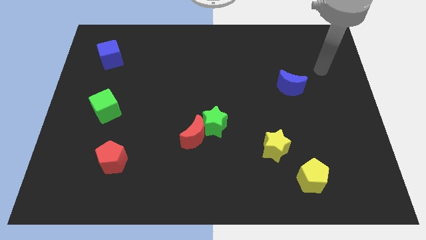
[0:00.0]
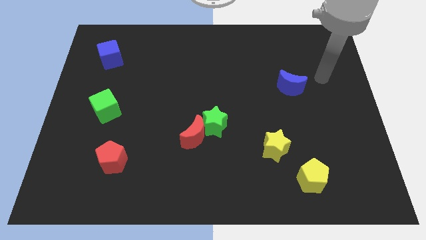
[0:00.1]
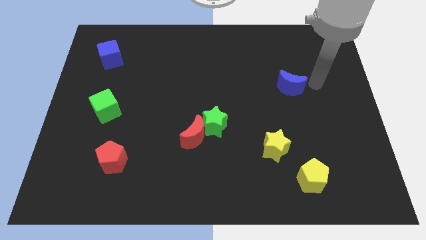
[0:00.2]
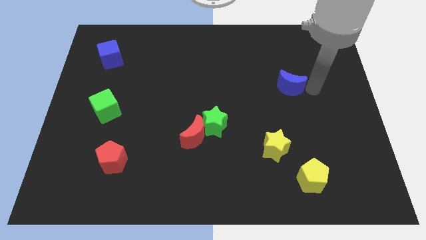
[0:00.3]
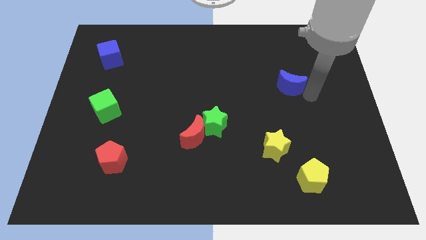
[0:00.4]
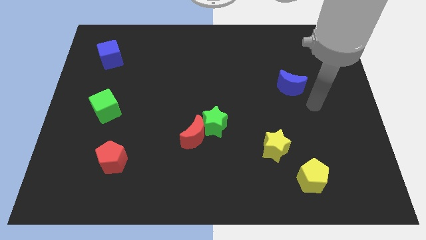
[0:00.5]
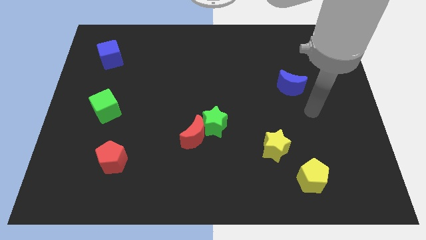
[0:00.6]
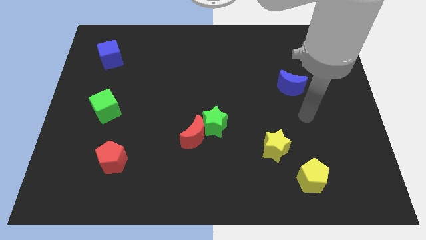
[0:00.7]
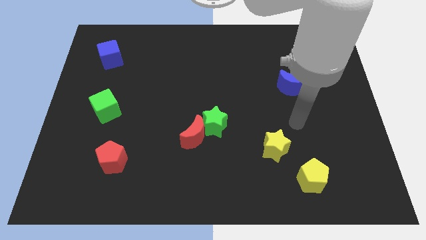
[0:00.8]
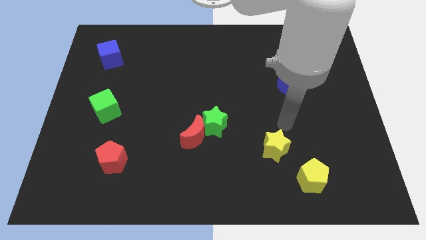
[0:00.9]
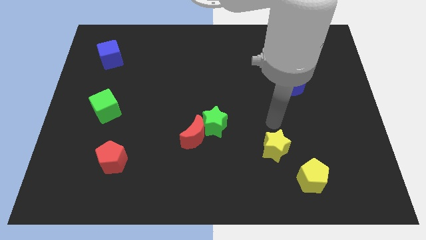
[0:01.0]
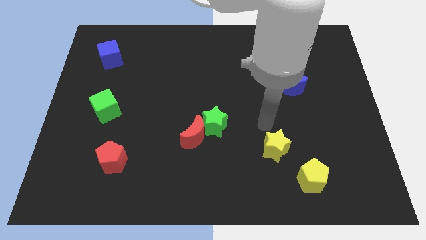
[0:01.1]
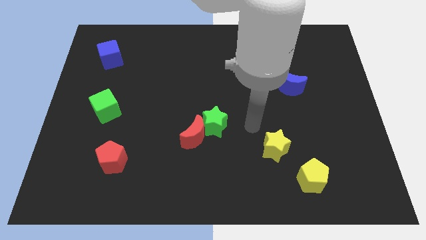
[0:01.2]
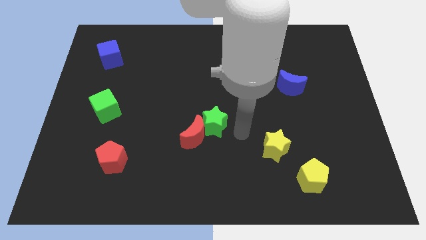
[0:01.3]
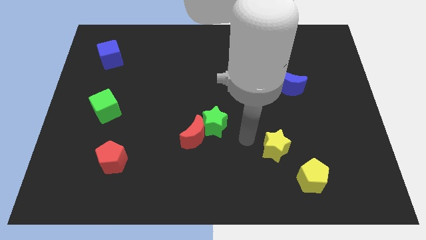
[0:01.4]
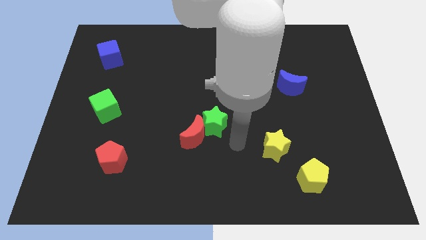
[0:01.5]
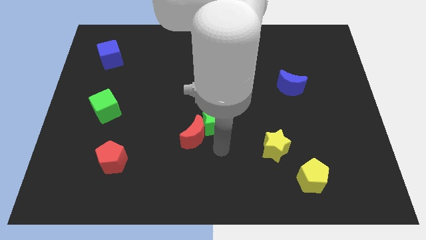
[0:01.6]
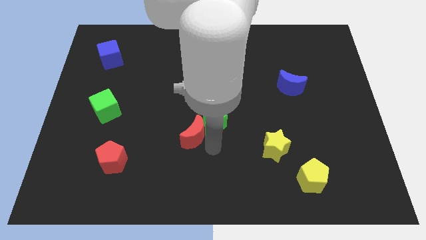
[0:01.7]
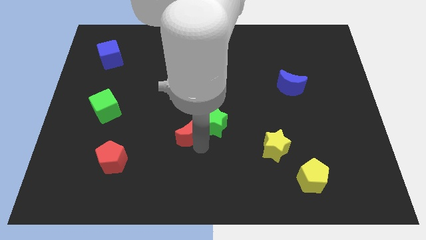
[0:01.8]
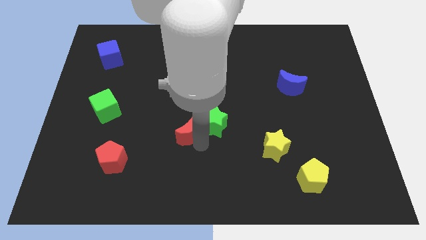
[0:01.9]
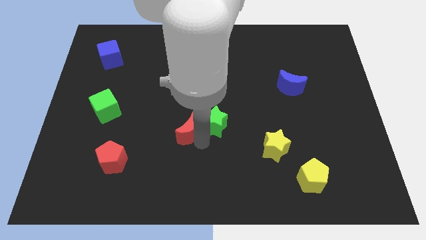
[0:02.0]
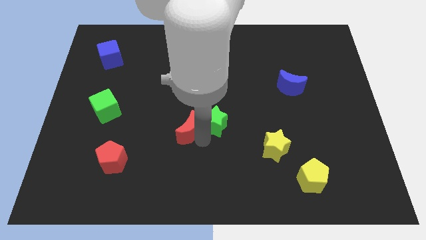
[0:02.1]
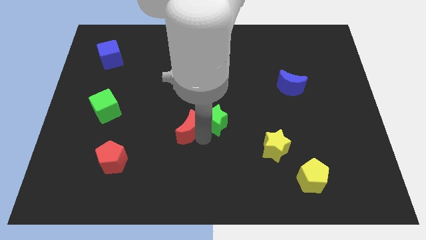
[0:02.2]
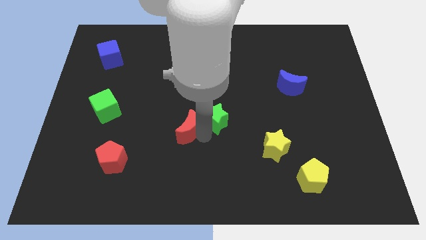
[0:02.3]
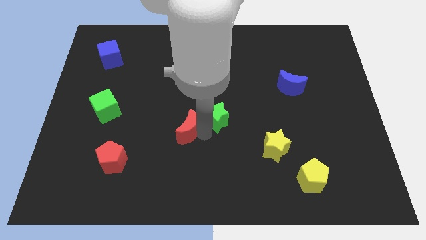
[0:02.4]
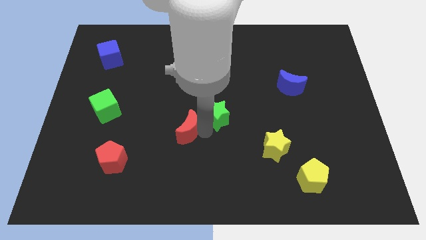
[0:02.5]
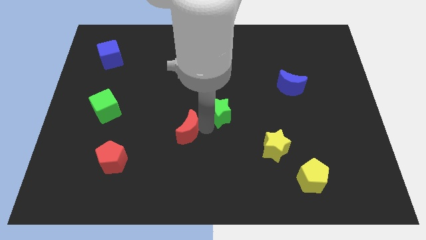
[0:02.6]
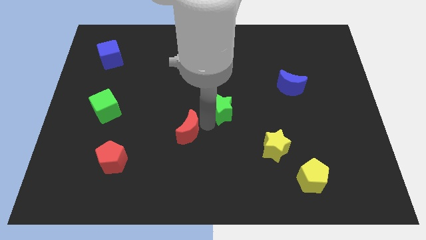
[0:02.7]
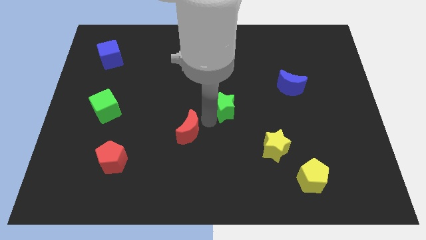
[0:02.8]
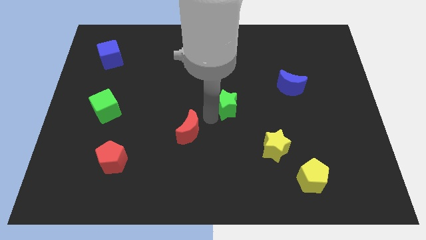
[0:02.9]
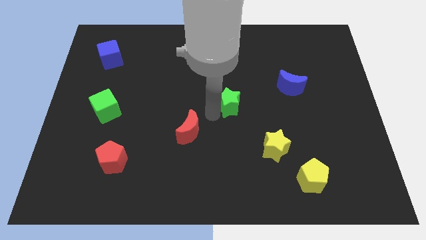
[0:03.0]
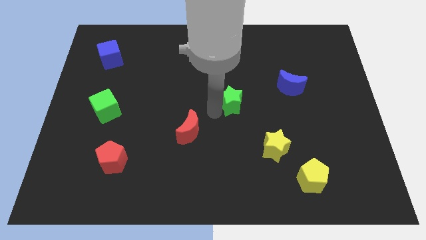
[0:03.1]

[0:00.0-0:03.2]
slightly slide the green star up and then to the right

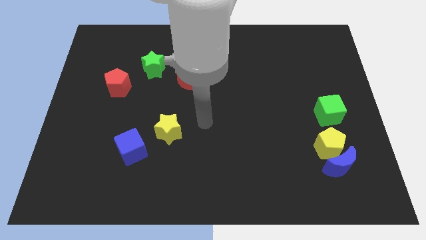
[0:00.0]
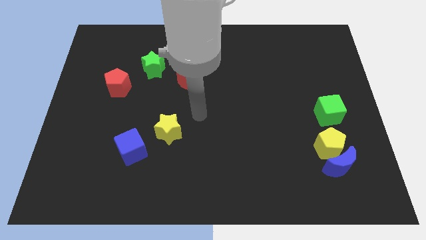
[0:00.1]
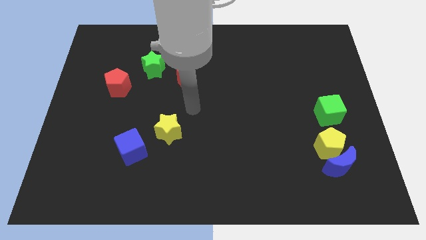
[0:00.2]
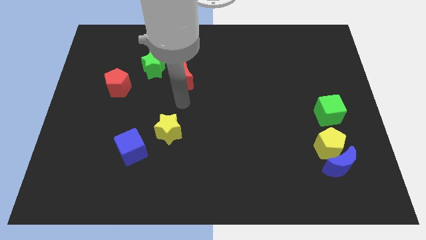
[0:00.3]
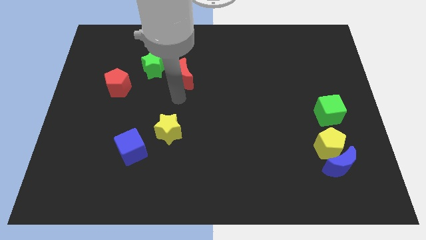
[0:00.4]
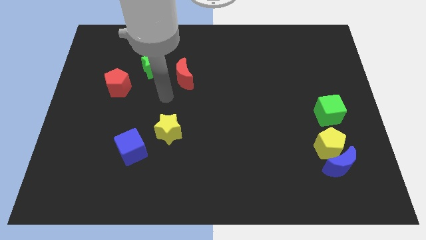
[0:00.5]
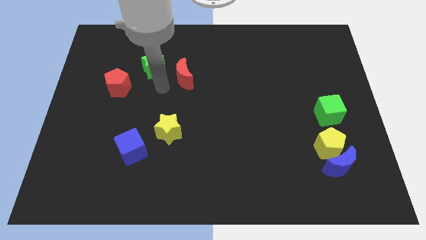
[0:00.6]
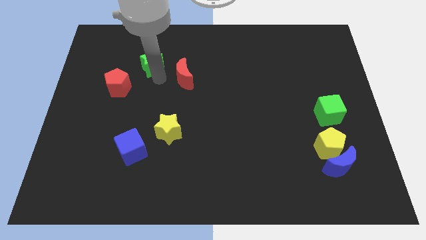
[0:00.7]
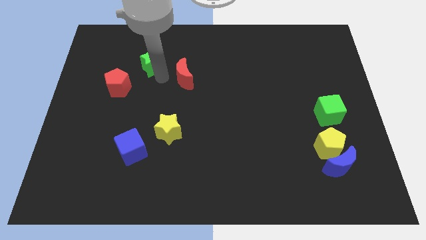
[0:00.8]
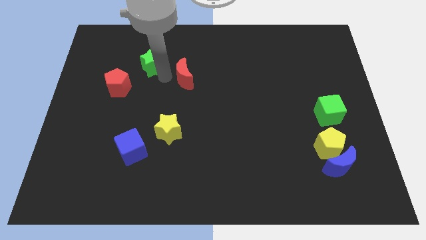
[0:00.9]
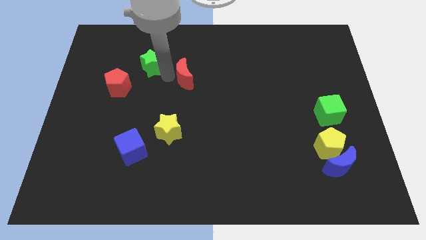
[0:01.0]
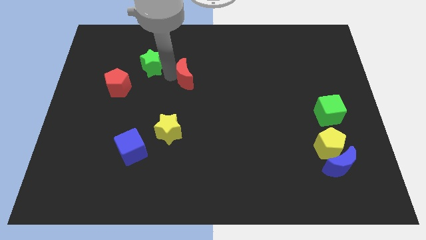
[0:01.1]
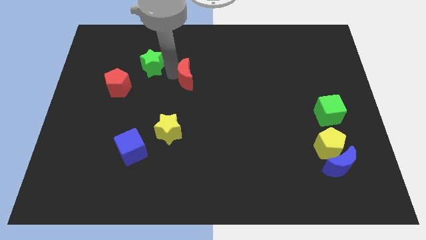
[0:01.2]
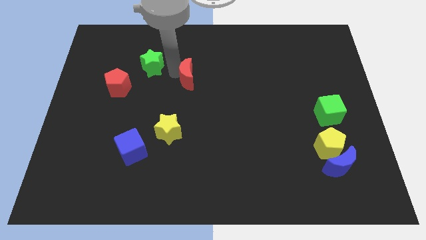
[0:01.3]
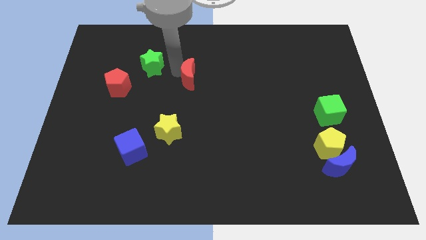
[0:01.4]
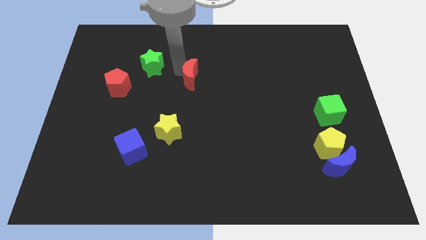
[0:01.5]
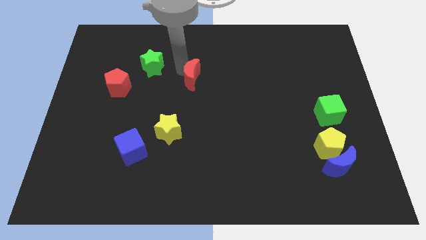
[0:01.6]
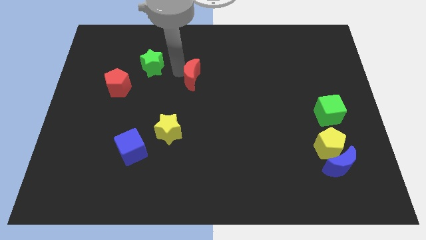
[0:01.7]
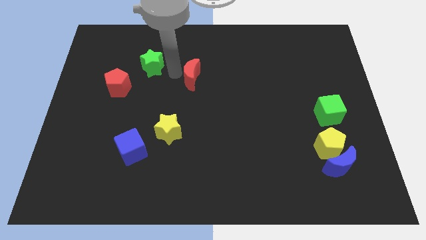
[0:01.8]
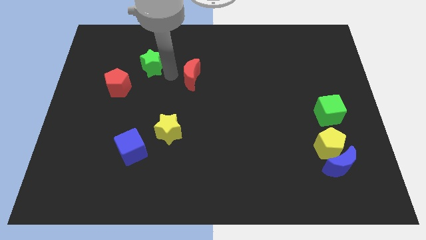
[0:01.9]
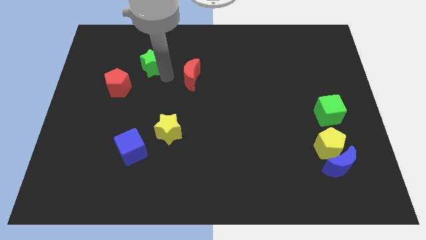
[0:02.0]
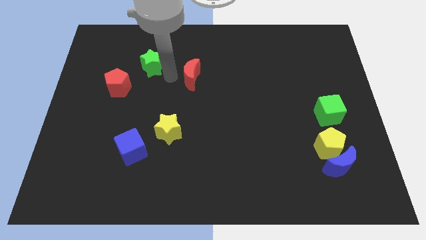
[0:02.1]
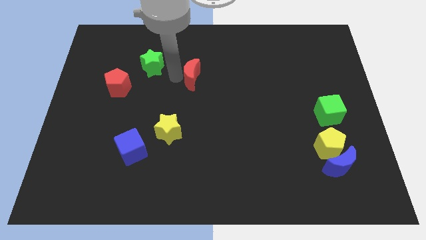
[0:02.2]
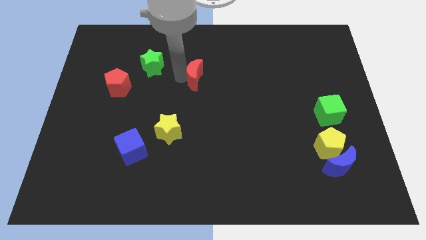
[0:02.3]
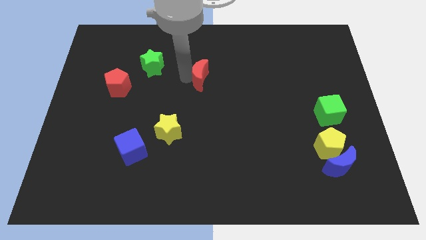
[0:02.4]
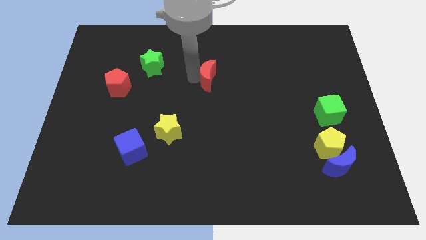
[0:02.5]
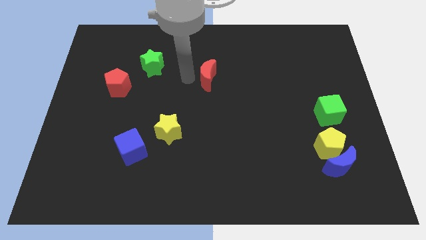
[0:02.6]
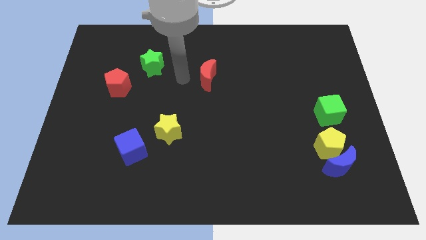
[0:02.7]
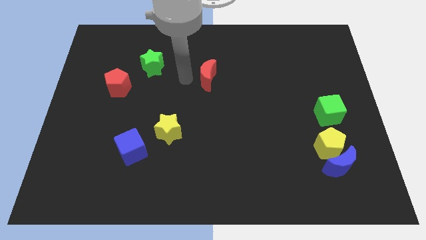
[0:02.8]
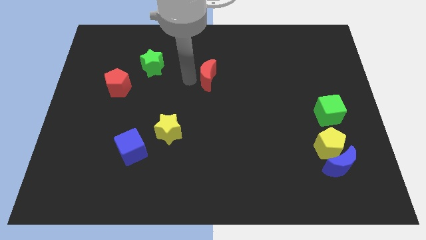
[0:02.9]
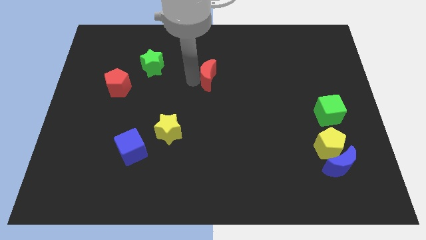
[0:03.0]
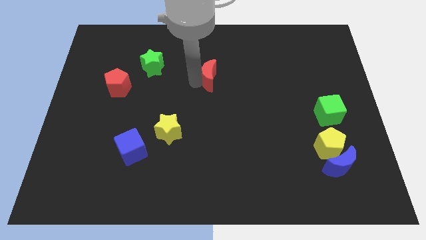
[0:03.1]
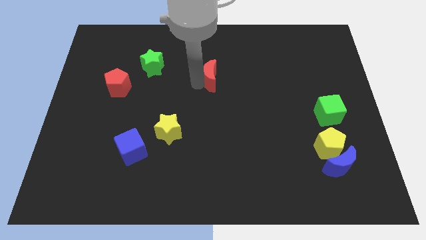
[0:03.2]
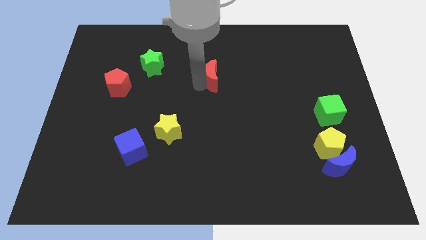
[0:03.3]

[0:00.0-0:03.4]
slightly move the red moon to the right

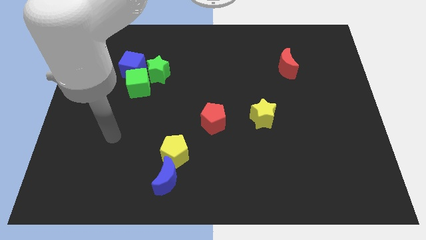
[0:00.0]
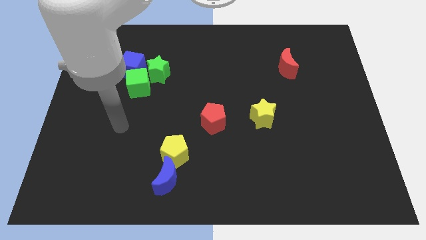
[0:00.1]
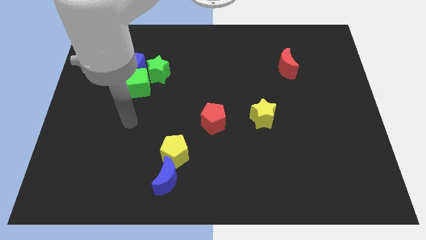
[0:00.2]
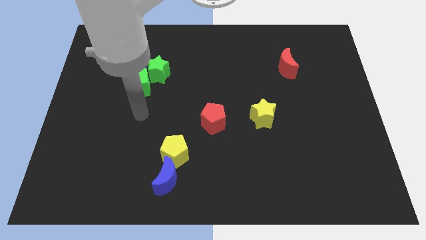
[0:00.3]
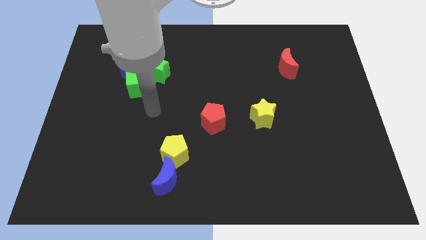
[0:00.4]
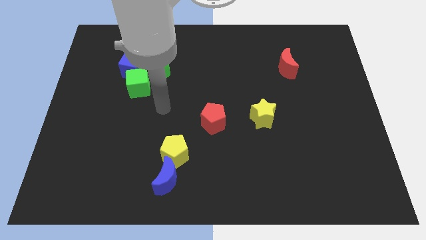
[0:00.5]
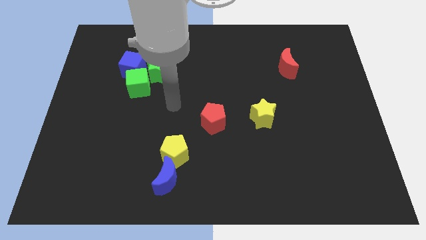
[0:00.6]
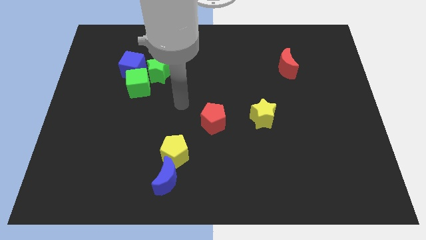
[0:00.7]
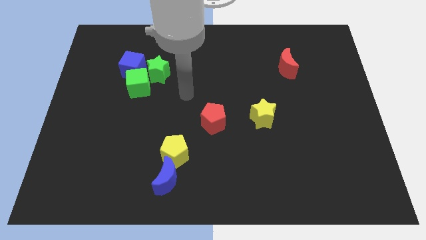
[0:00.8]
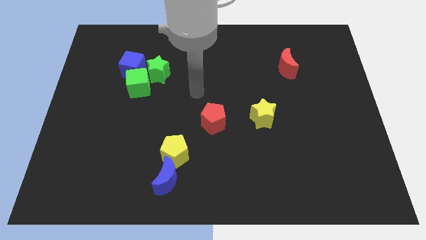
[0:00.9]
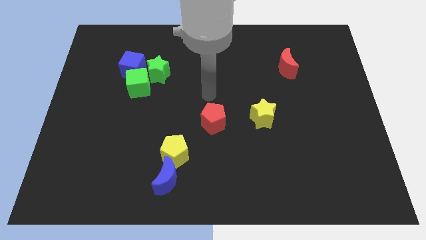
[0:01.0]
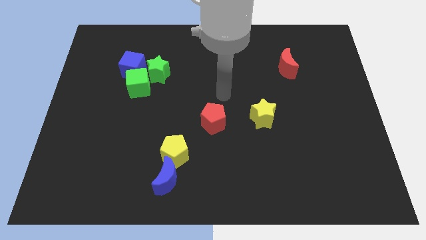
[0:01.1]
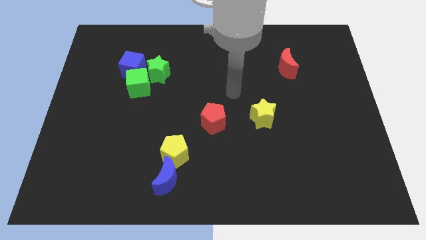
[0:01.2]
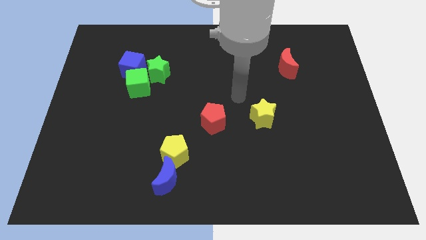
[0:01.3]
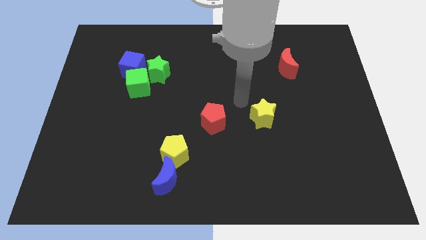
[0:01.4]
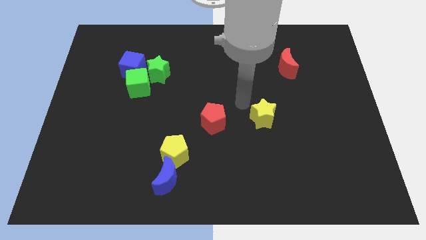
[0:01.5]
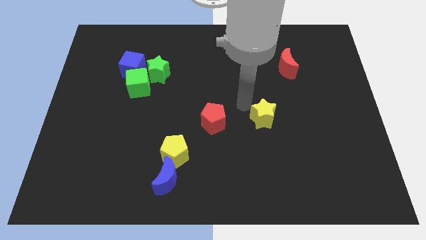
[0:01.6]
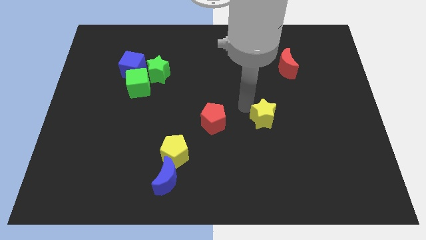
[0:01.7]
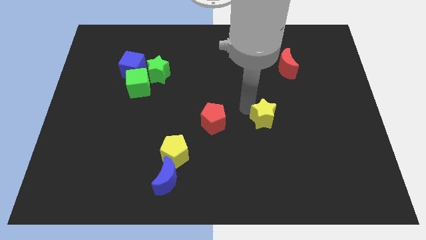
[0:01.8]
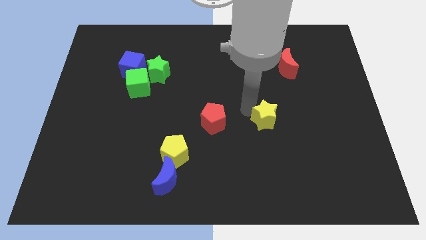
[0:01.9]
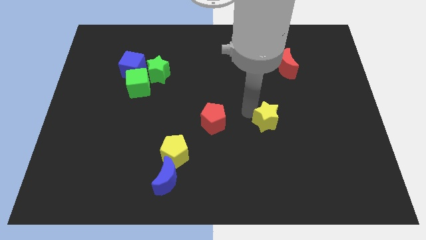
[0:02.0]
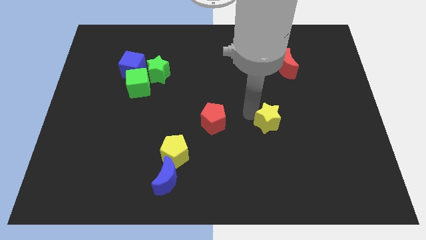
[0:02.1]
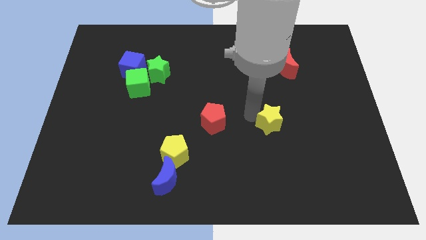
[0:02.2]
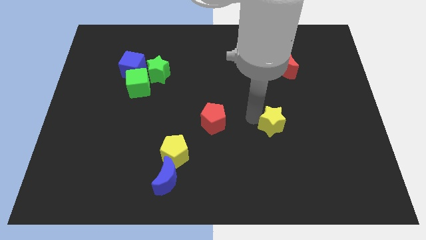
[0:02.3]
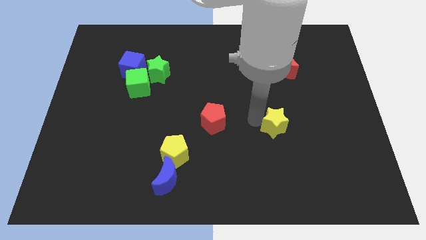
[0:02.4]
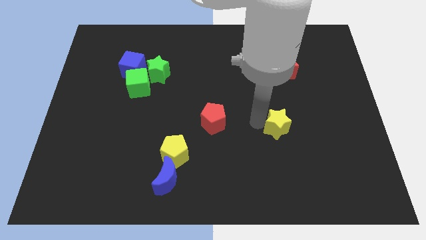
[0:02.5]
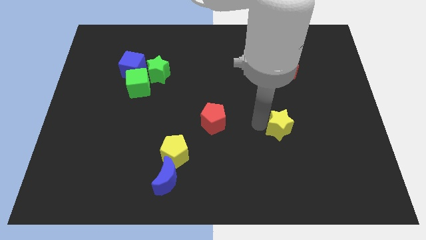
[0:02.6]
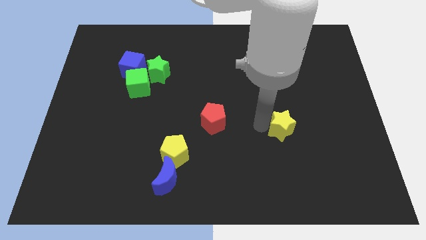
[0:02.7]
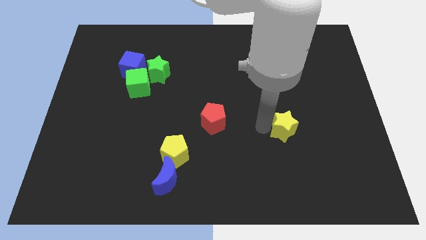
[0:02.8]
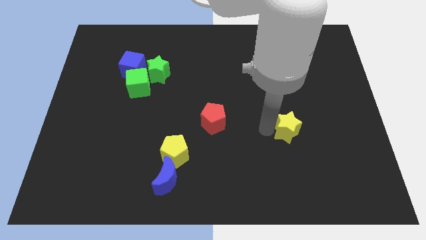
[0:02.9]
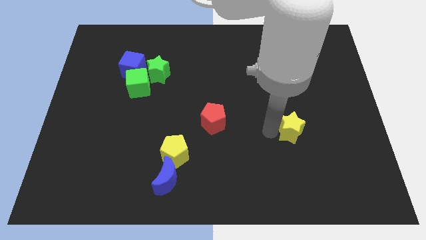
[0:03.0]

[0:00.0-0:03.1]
push the yellow star a little down and to the right diagonally
